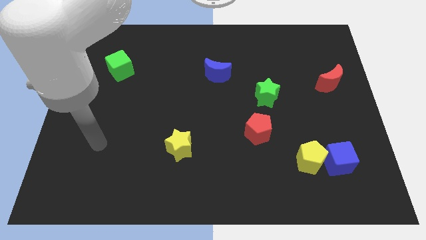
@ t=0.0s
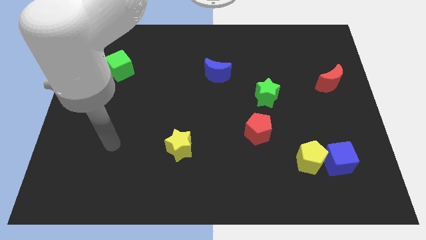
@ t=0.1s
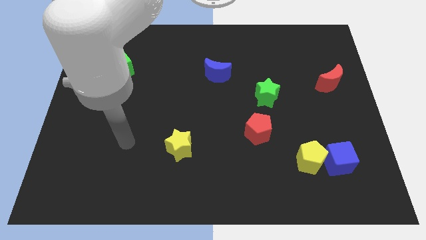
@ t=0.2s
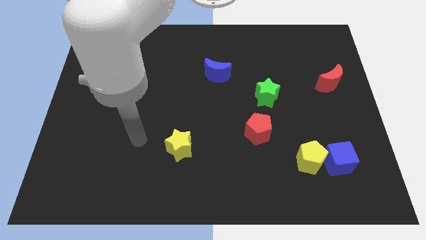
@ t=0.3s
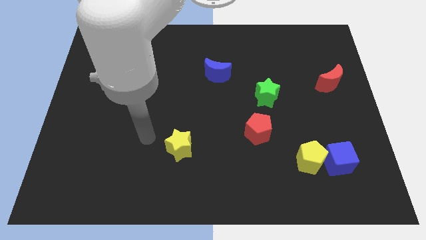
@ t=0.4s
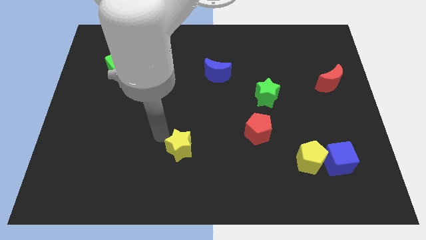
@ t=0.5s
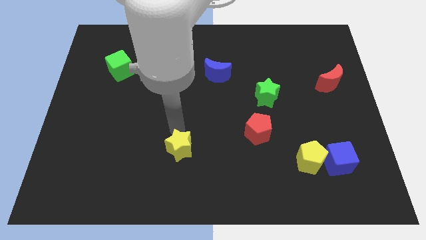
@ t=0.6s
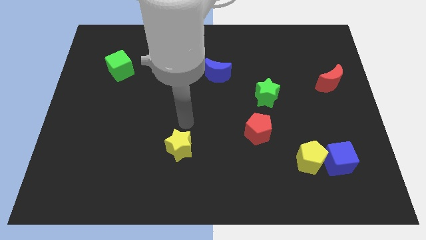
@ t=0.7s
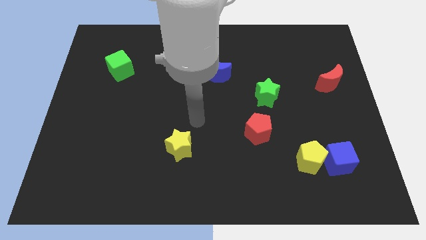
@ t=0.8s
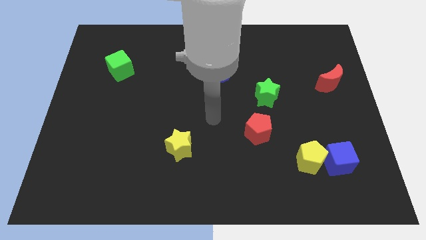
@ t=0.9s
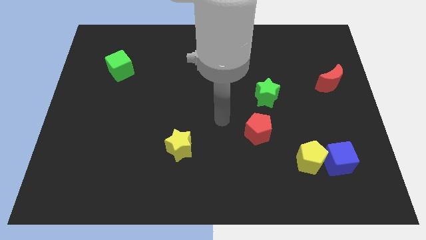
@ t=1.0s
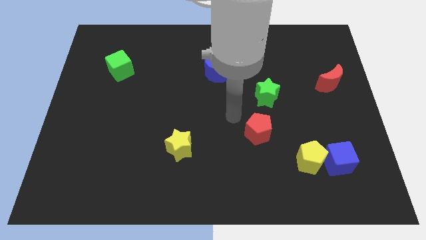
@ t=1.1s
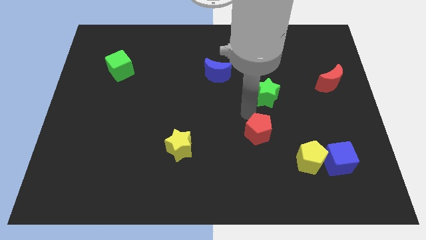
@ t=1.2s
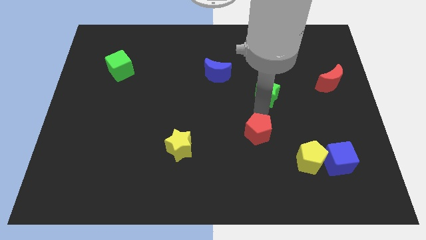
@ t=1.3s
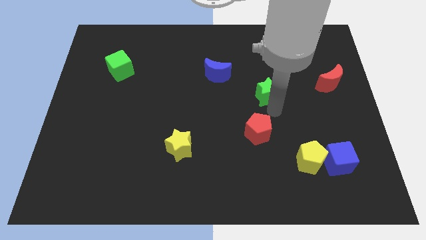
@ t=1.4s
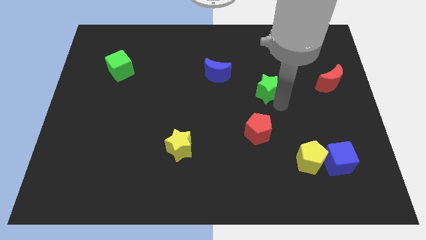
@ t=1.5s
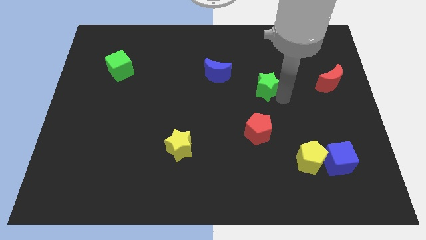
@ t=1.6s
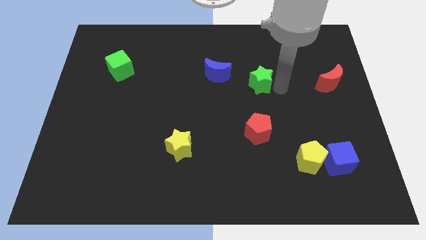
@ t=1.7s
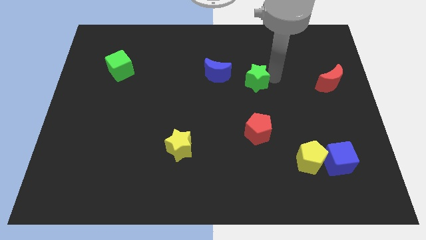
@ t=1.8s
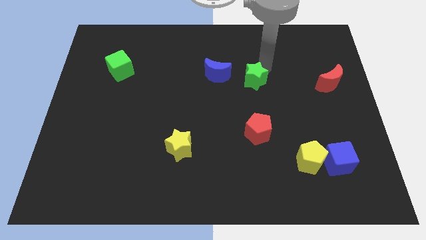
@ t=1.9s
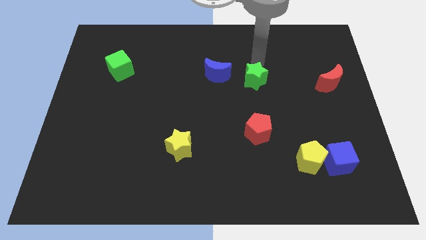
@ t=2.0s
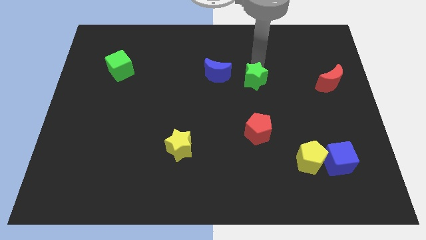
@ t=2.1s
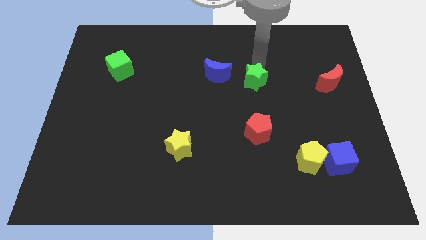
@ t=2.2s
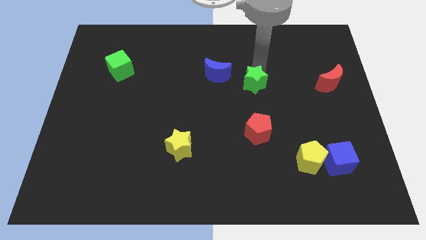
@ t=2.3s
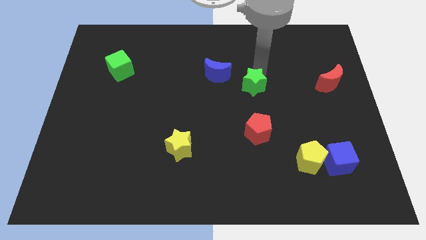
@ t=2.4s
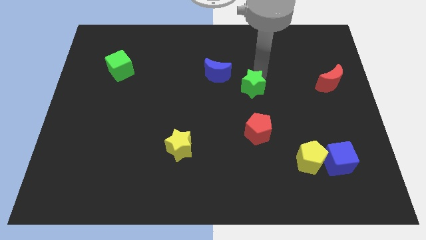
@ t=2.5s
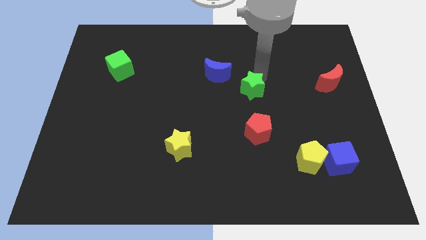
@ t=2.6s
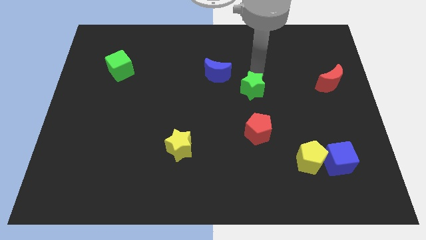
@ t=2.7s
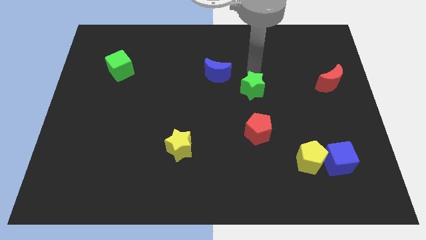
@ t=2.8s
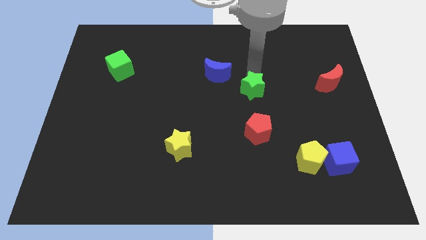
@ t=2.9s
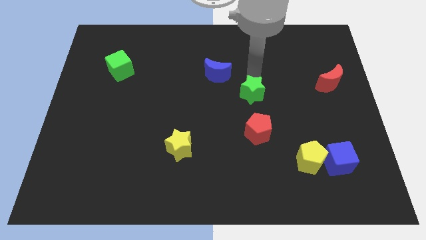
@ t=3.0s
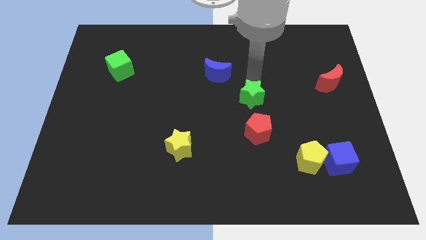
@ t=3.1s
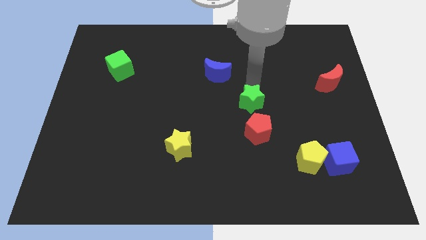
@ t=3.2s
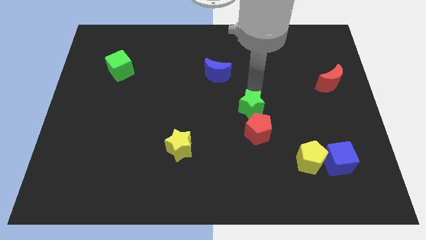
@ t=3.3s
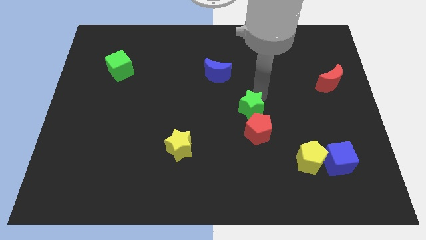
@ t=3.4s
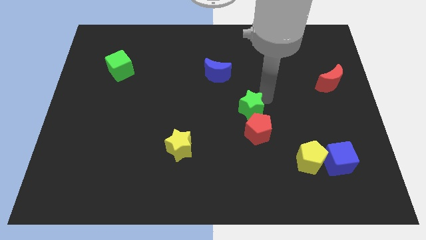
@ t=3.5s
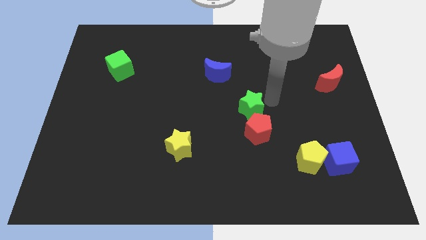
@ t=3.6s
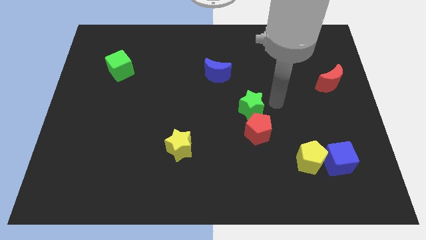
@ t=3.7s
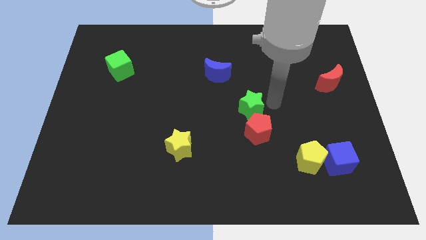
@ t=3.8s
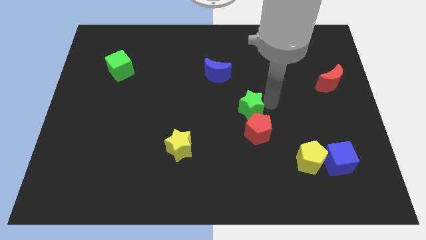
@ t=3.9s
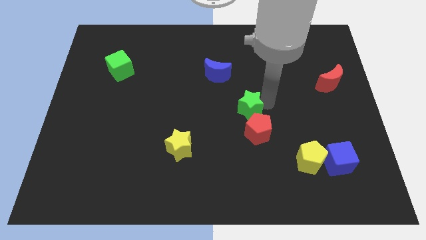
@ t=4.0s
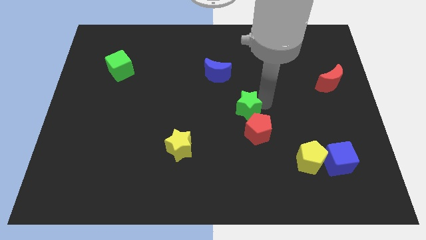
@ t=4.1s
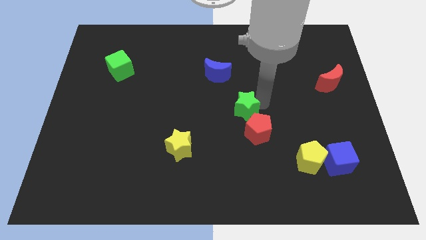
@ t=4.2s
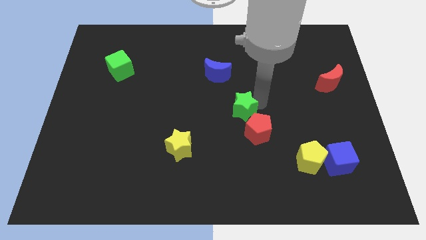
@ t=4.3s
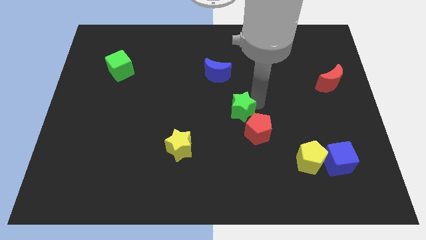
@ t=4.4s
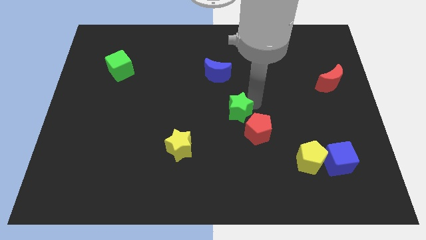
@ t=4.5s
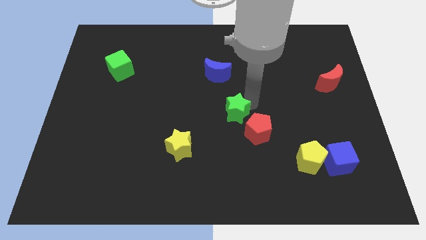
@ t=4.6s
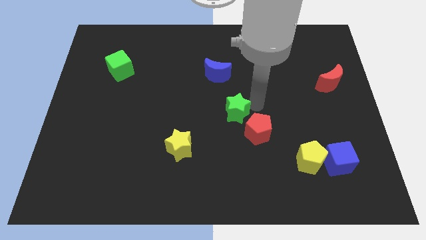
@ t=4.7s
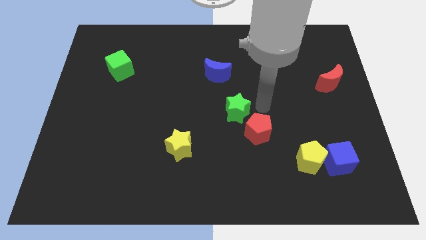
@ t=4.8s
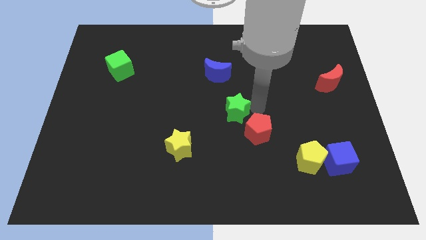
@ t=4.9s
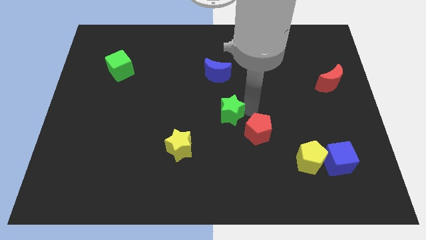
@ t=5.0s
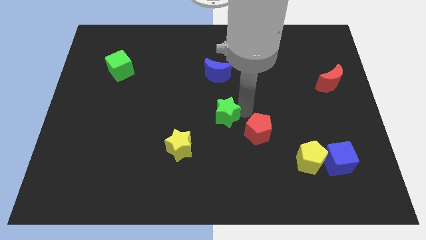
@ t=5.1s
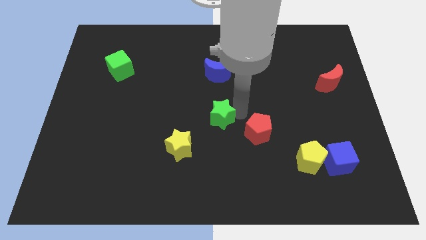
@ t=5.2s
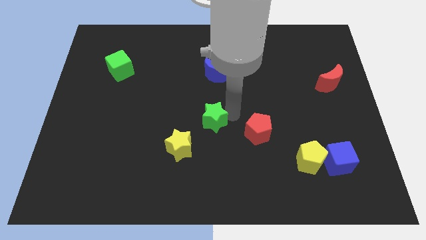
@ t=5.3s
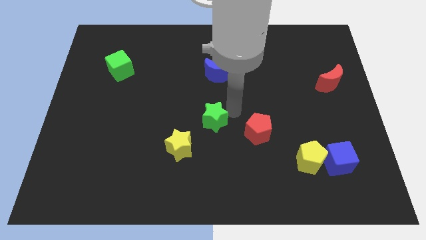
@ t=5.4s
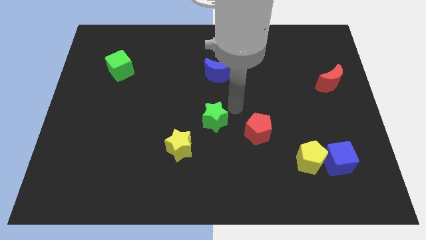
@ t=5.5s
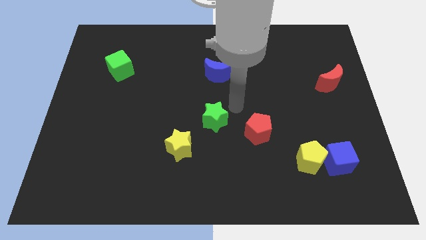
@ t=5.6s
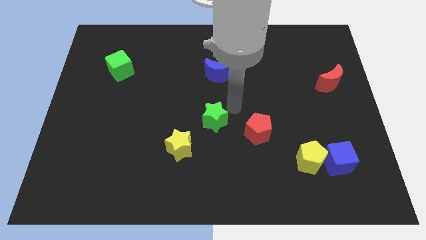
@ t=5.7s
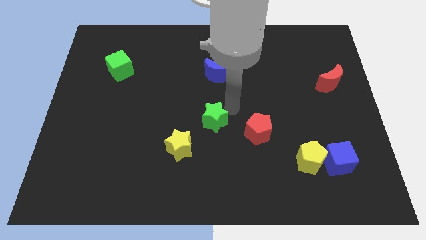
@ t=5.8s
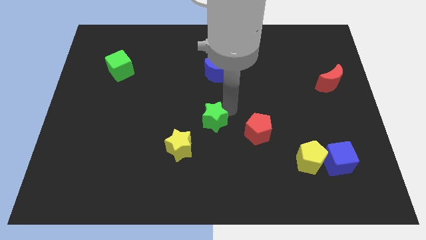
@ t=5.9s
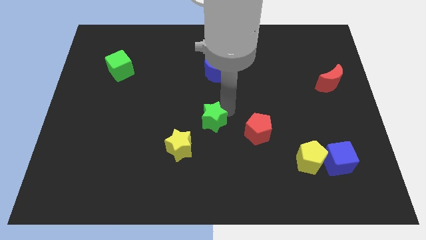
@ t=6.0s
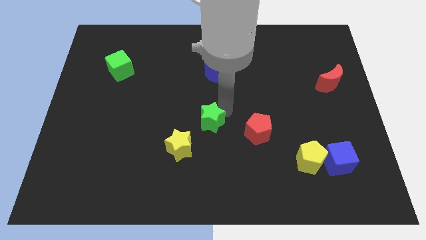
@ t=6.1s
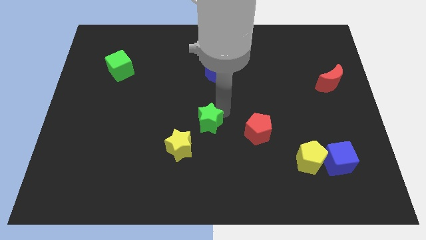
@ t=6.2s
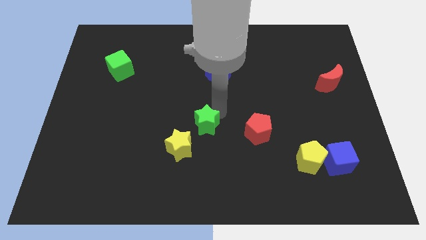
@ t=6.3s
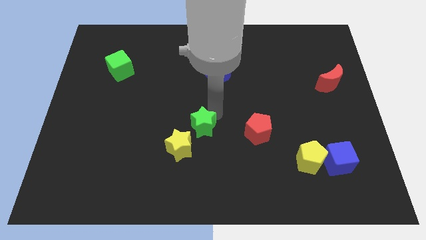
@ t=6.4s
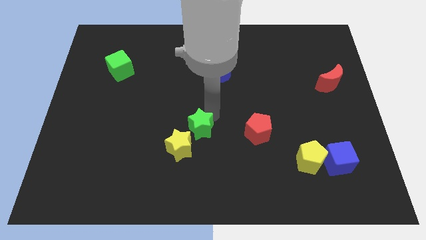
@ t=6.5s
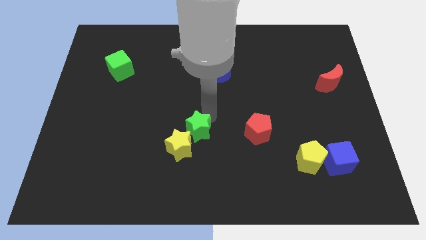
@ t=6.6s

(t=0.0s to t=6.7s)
move the green star to the yellow star

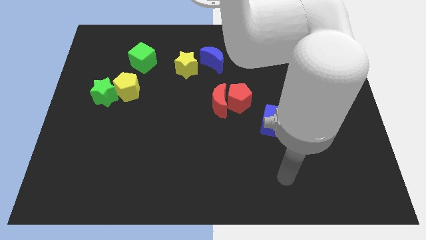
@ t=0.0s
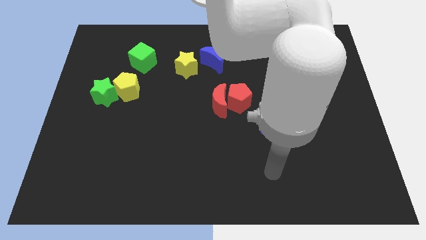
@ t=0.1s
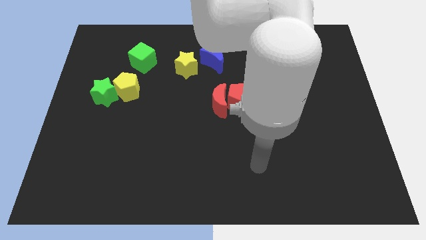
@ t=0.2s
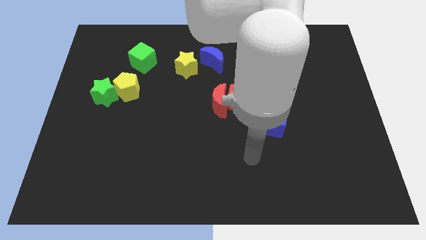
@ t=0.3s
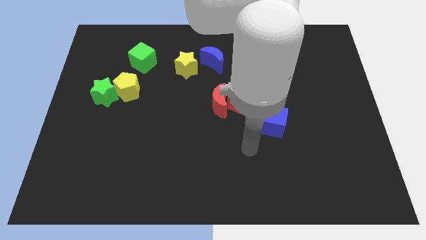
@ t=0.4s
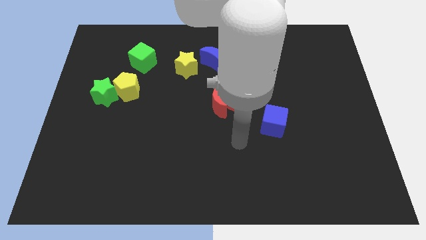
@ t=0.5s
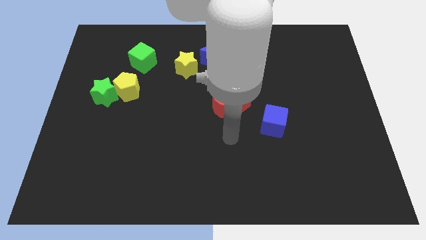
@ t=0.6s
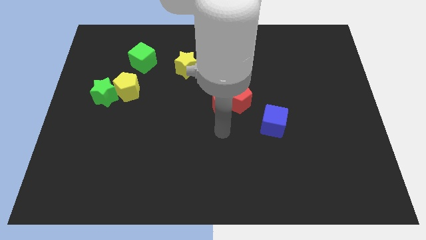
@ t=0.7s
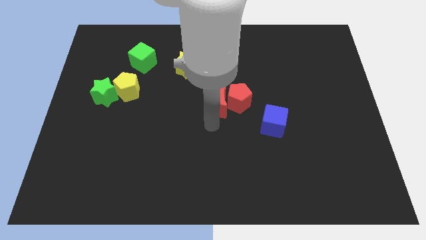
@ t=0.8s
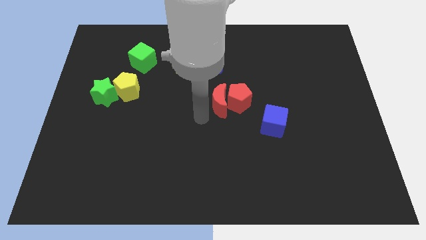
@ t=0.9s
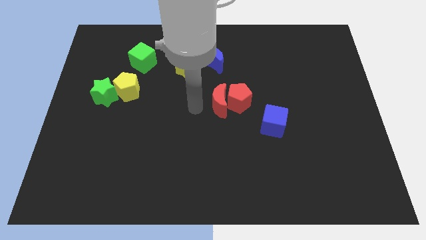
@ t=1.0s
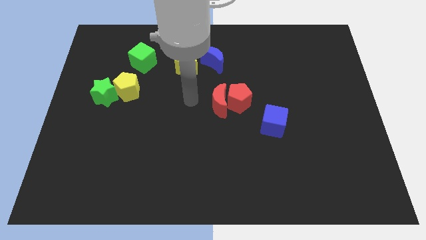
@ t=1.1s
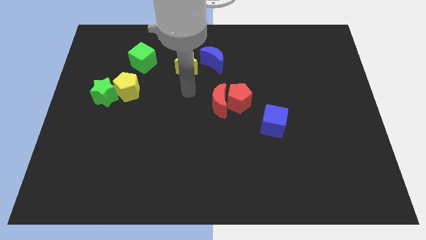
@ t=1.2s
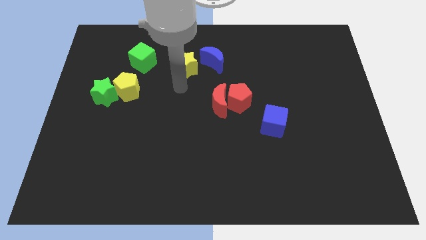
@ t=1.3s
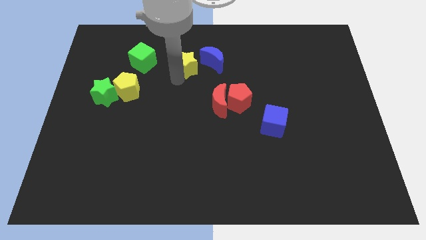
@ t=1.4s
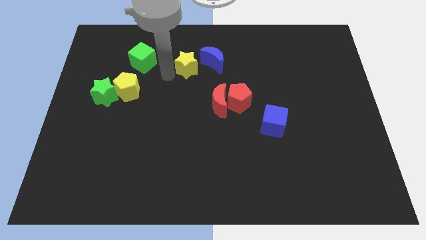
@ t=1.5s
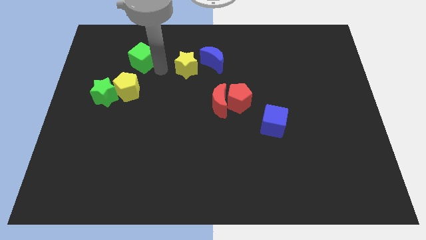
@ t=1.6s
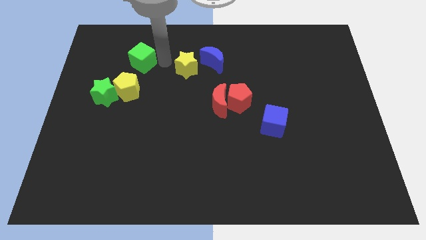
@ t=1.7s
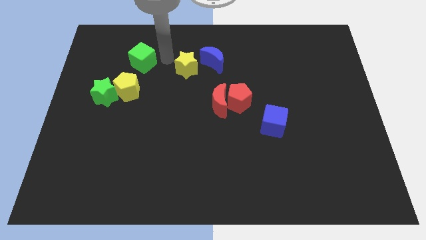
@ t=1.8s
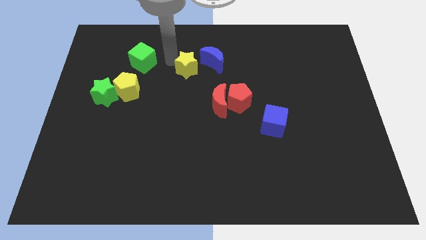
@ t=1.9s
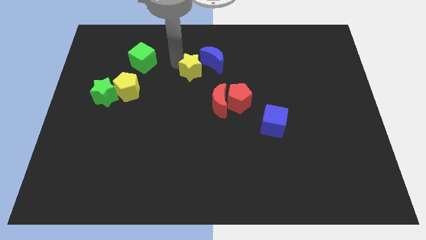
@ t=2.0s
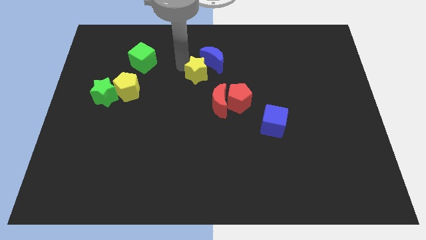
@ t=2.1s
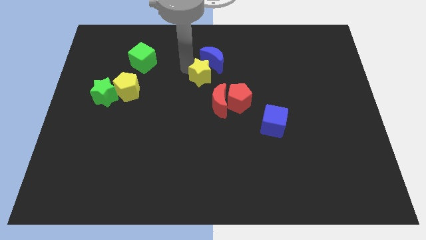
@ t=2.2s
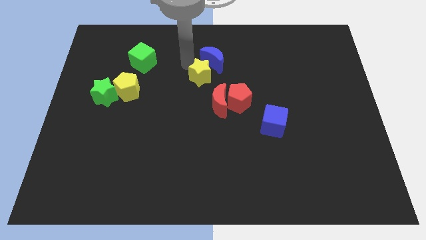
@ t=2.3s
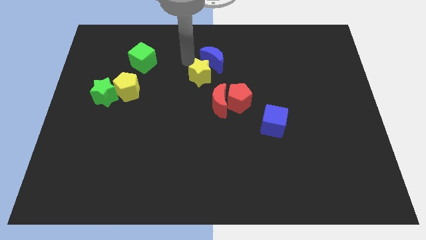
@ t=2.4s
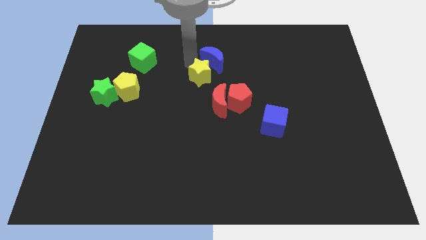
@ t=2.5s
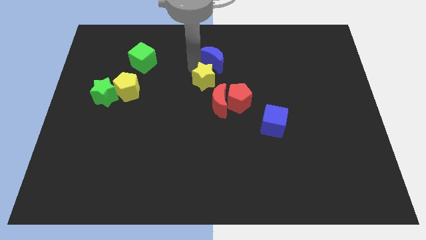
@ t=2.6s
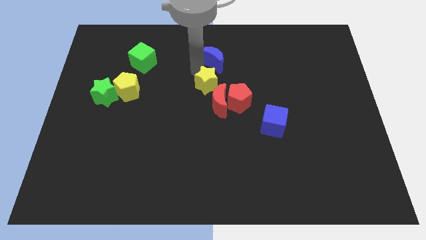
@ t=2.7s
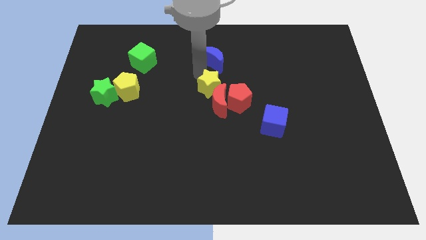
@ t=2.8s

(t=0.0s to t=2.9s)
push the yellow star to the red moon
